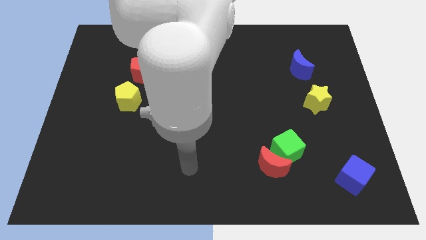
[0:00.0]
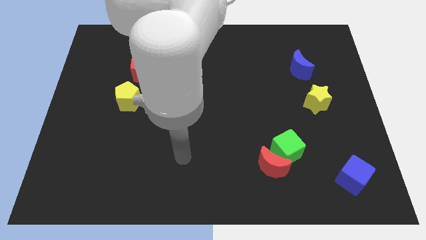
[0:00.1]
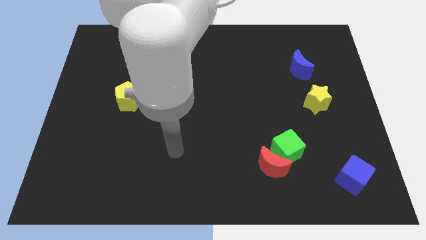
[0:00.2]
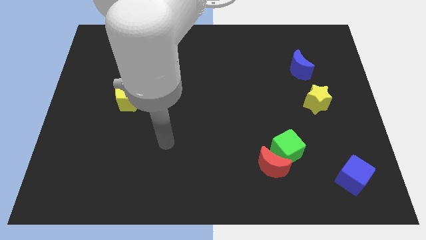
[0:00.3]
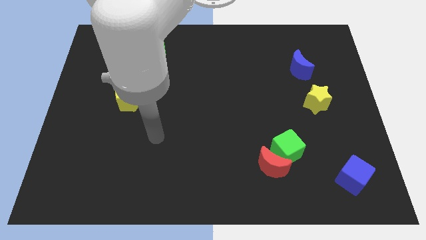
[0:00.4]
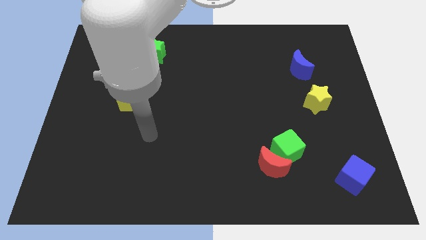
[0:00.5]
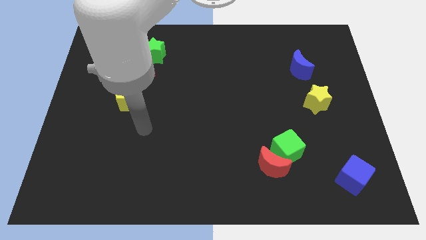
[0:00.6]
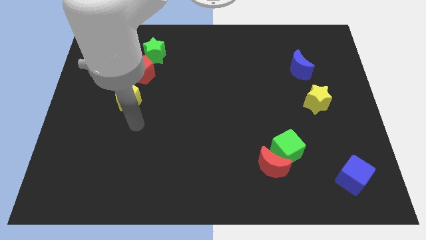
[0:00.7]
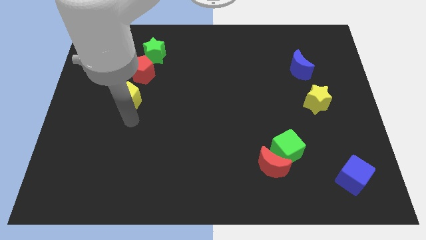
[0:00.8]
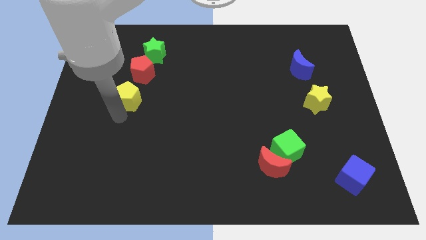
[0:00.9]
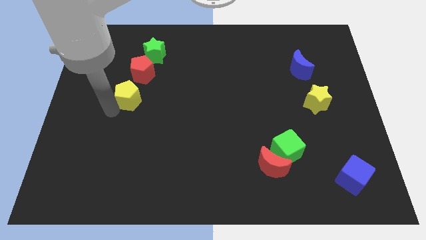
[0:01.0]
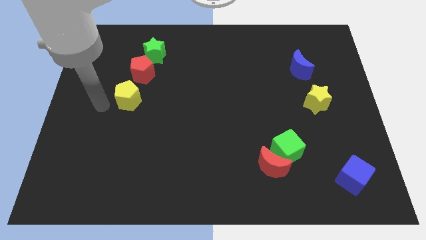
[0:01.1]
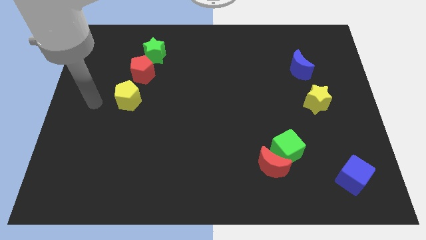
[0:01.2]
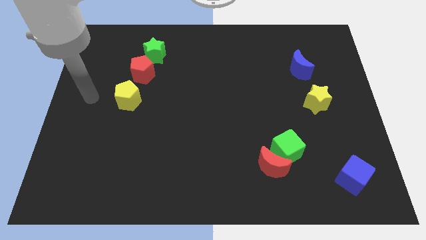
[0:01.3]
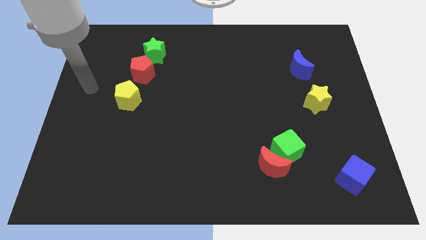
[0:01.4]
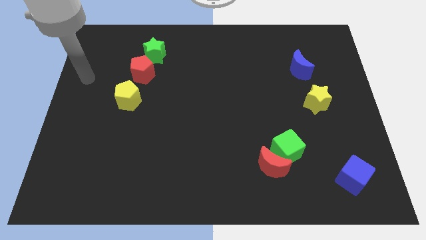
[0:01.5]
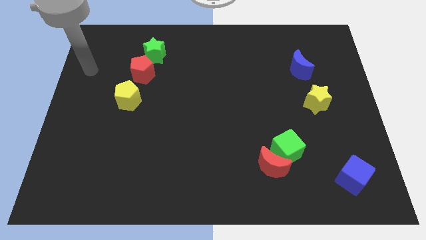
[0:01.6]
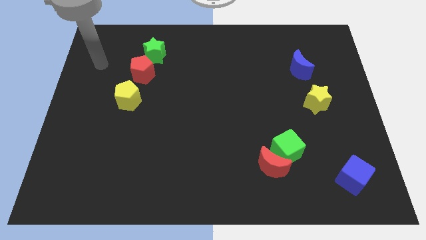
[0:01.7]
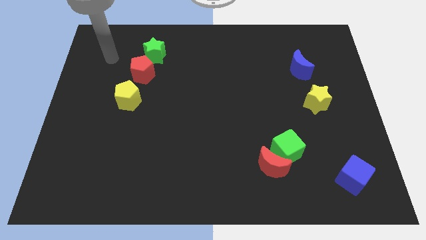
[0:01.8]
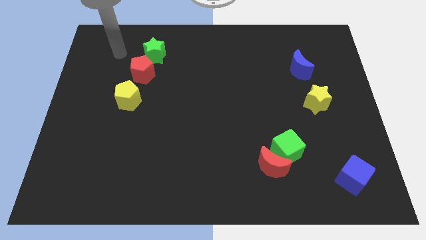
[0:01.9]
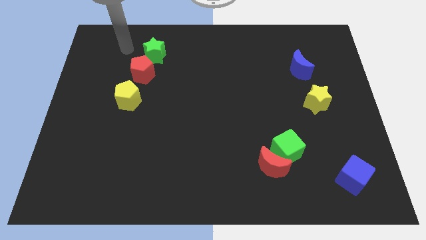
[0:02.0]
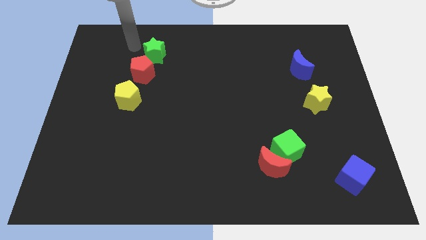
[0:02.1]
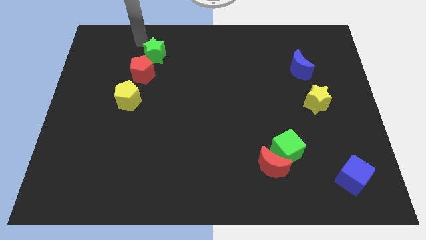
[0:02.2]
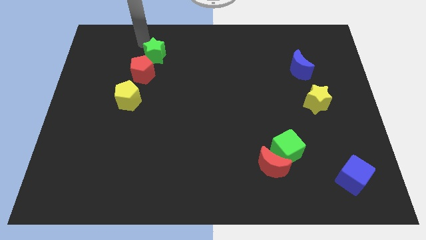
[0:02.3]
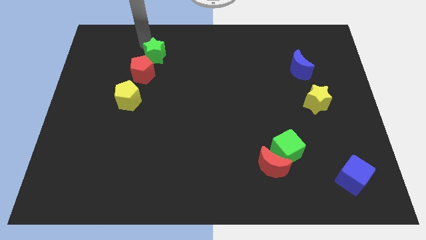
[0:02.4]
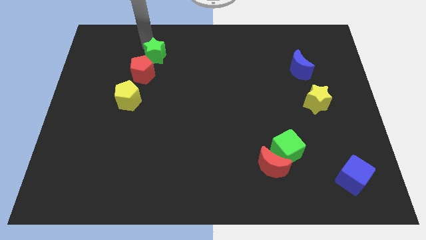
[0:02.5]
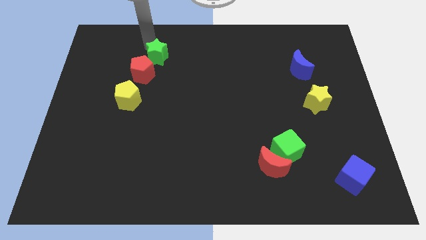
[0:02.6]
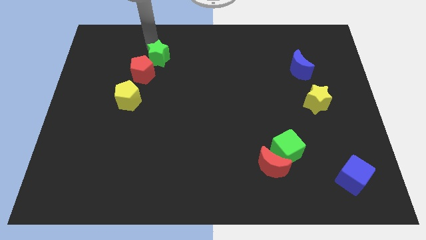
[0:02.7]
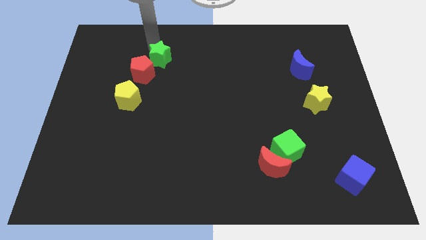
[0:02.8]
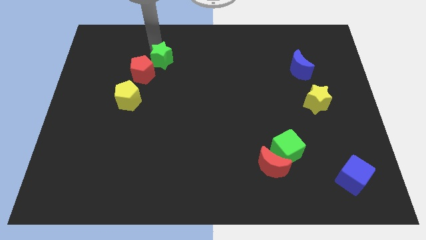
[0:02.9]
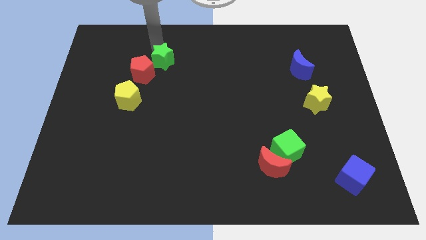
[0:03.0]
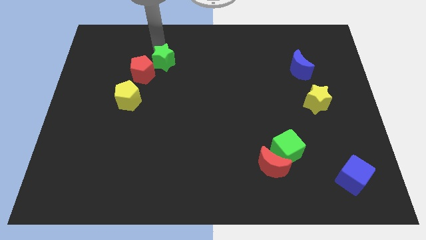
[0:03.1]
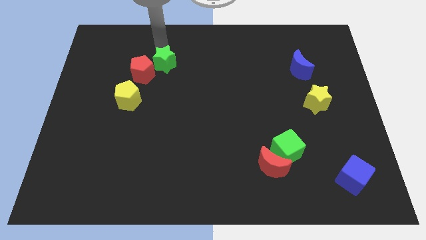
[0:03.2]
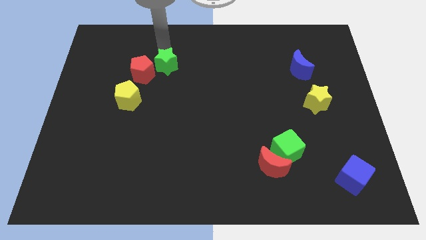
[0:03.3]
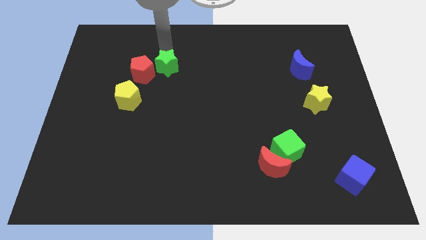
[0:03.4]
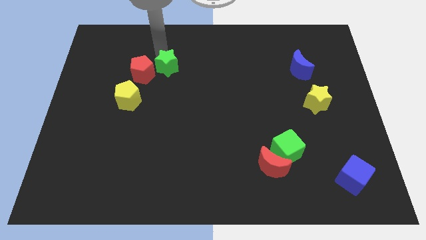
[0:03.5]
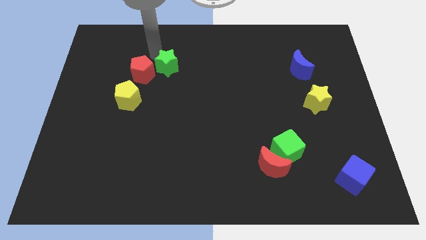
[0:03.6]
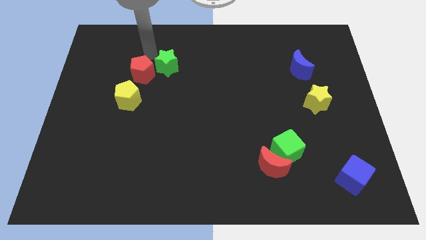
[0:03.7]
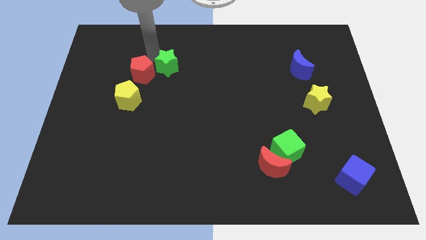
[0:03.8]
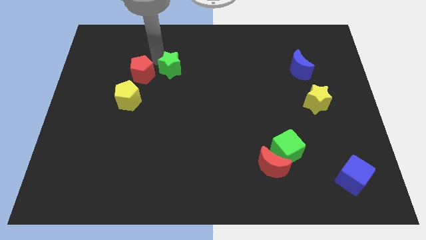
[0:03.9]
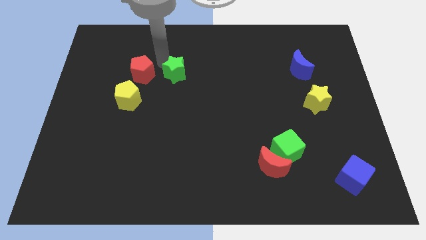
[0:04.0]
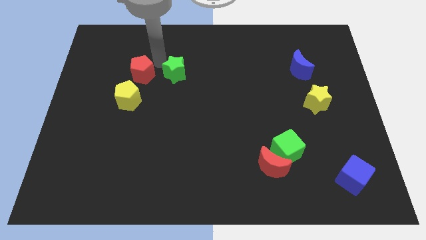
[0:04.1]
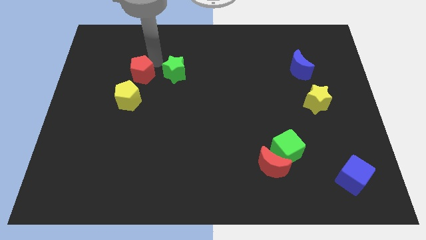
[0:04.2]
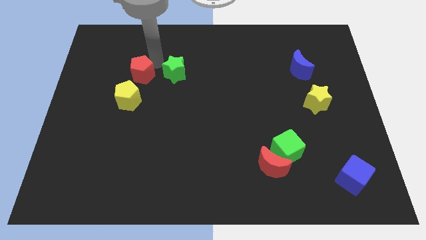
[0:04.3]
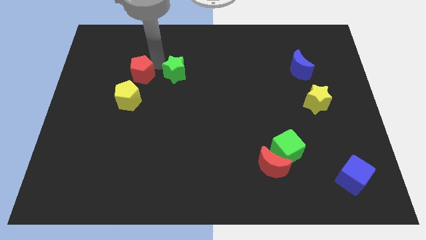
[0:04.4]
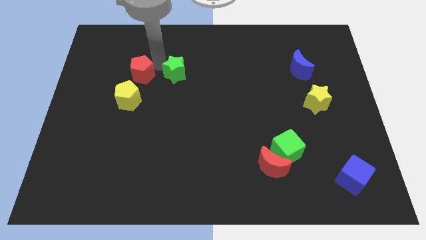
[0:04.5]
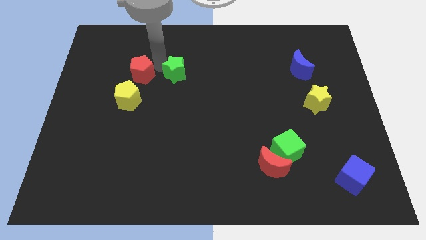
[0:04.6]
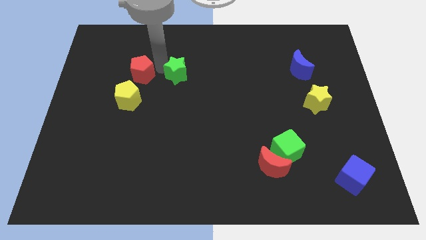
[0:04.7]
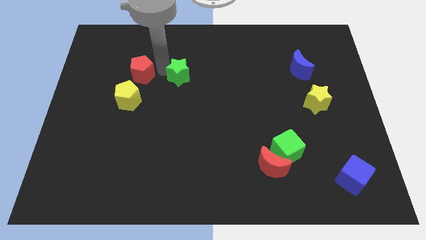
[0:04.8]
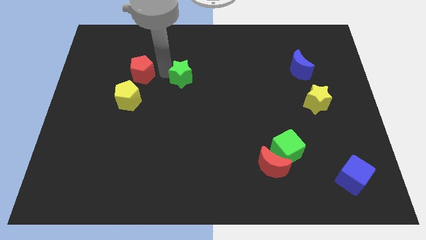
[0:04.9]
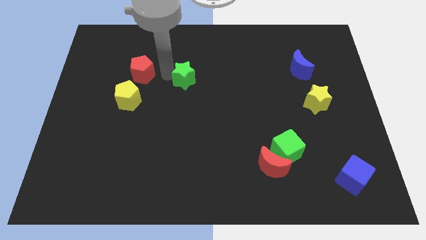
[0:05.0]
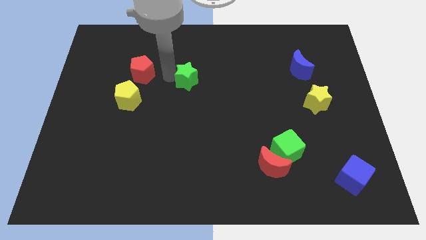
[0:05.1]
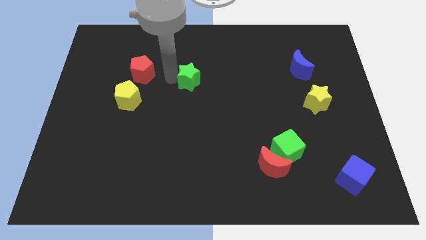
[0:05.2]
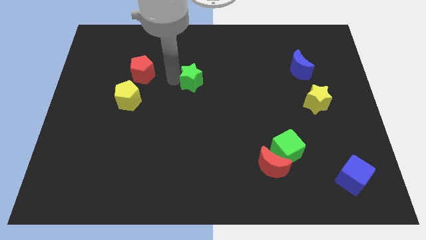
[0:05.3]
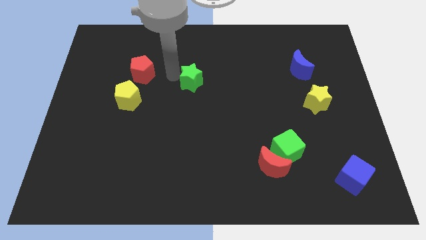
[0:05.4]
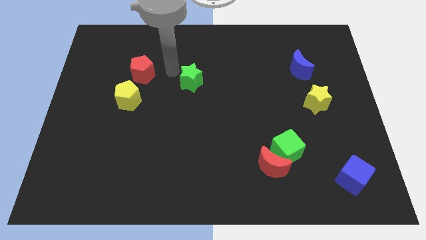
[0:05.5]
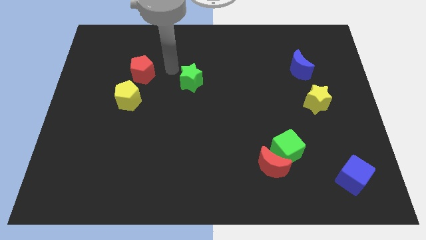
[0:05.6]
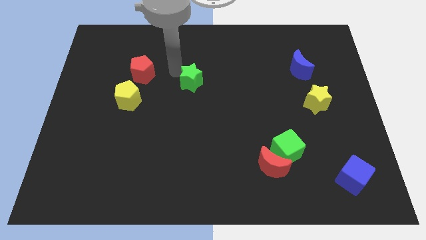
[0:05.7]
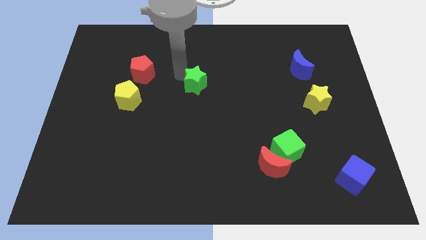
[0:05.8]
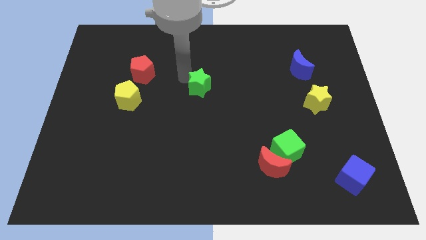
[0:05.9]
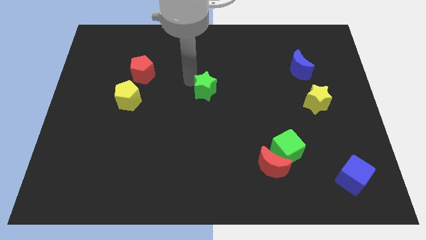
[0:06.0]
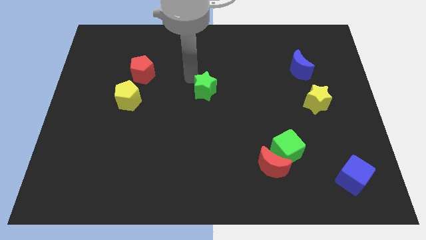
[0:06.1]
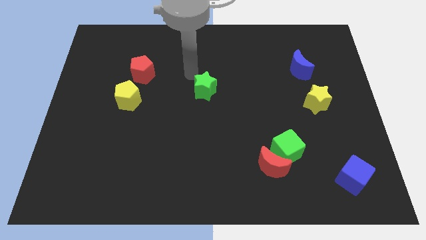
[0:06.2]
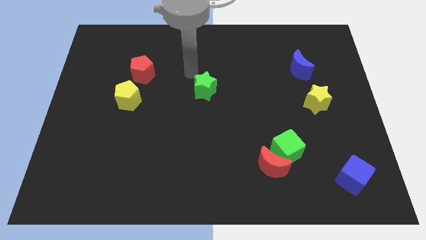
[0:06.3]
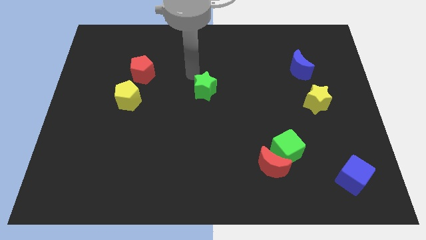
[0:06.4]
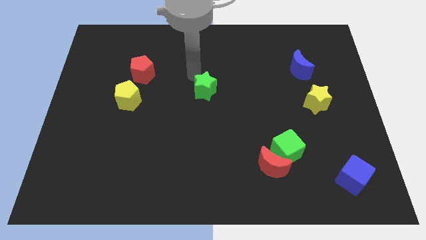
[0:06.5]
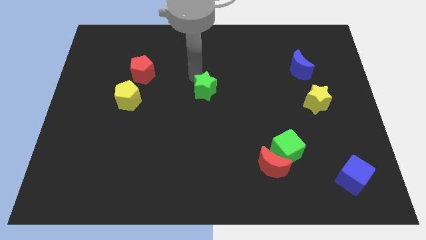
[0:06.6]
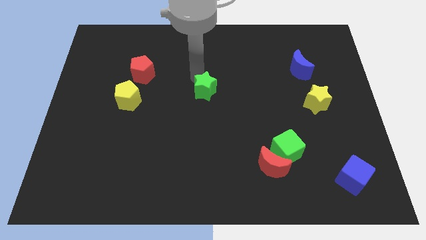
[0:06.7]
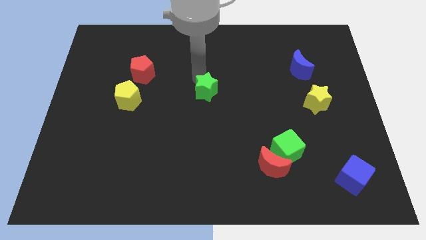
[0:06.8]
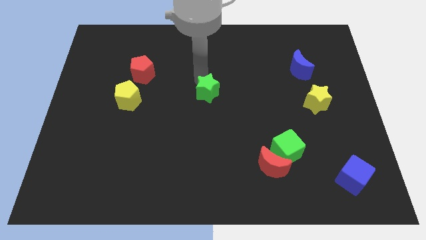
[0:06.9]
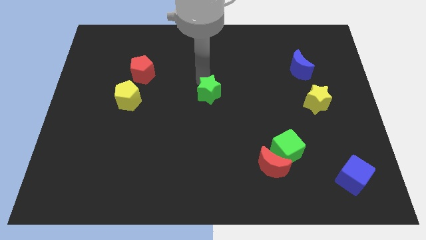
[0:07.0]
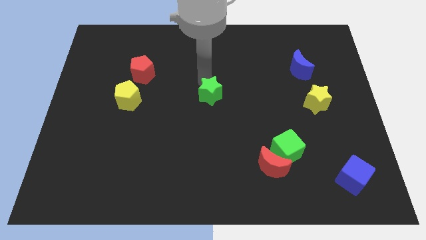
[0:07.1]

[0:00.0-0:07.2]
move the green star downwards and then right

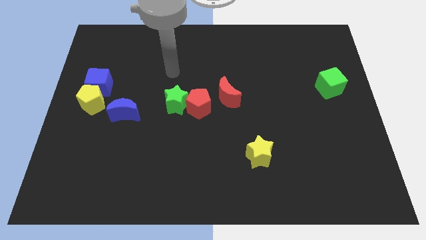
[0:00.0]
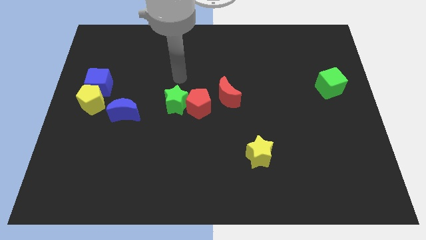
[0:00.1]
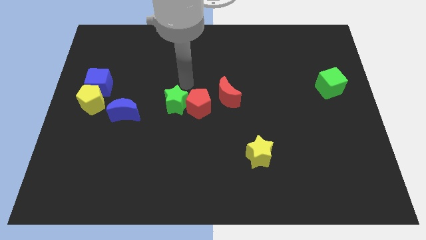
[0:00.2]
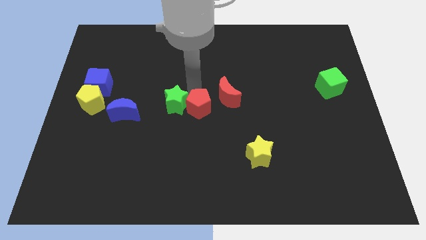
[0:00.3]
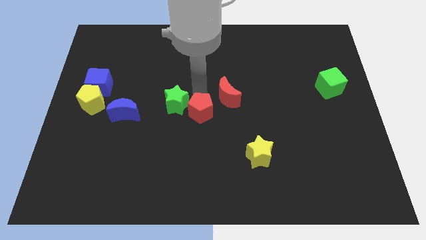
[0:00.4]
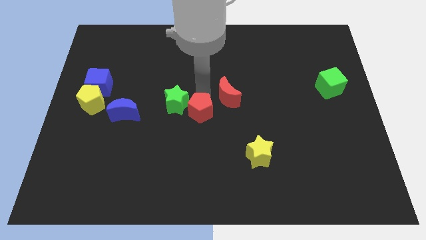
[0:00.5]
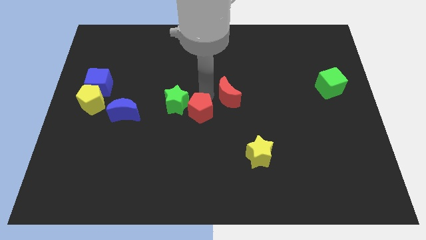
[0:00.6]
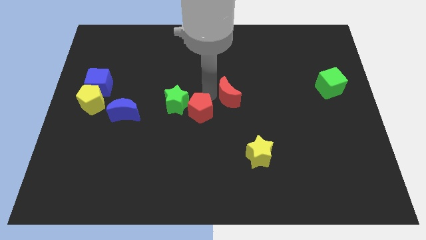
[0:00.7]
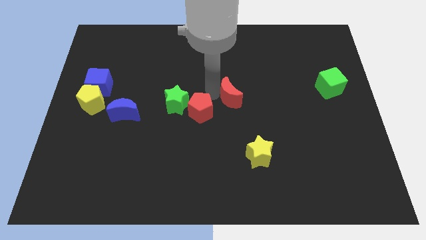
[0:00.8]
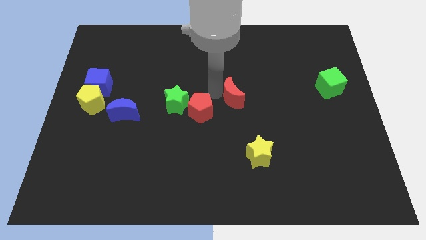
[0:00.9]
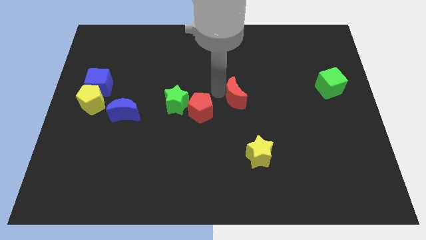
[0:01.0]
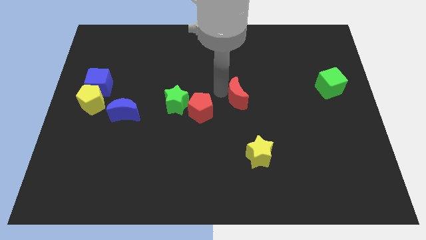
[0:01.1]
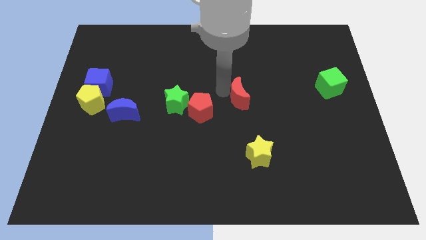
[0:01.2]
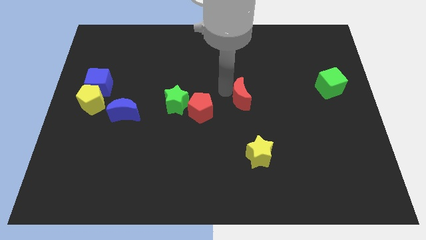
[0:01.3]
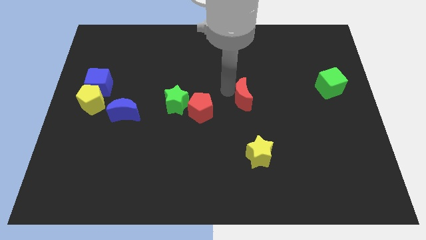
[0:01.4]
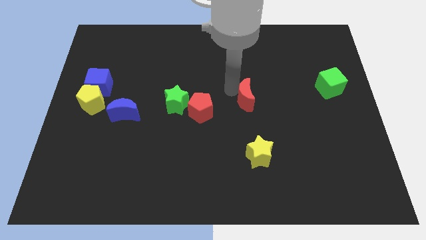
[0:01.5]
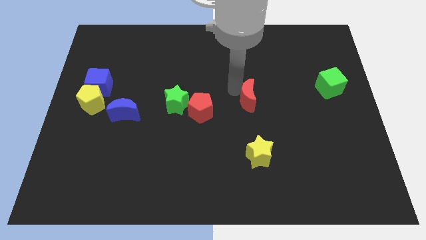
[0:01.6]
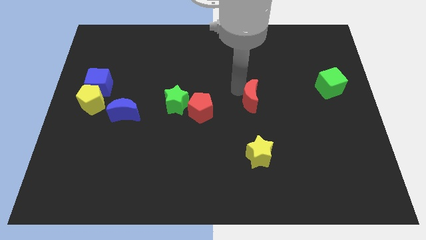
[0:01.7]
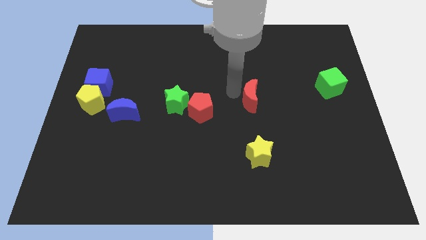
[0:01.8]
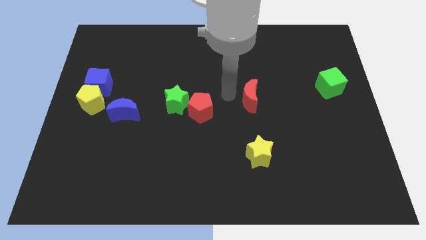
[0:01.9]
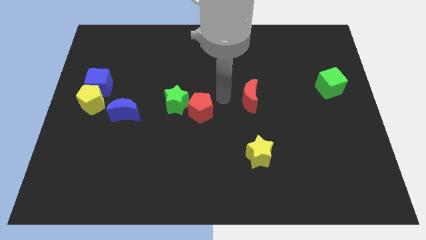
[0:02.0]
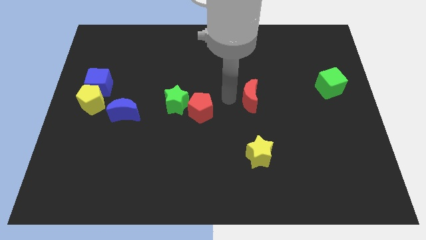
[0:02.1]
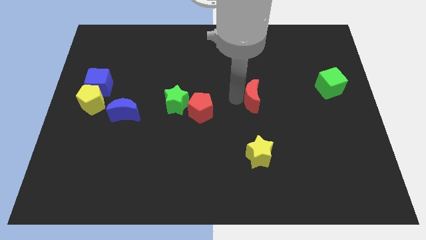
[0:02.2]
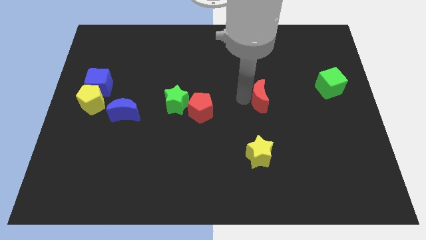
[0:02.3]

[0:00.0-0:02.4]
slightly move the red moon right
